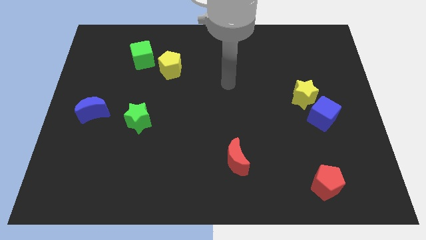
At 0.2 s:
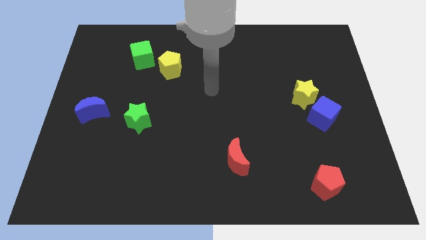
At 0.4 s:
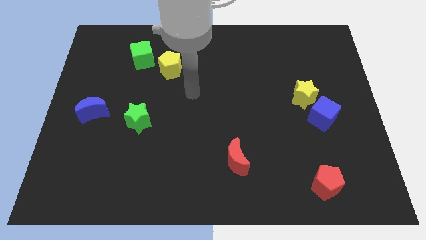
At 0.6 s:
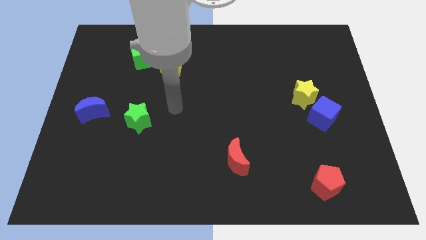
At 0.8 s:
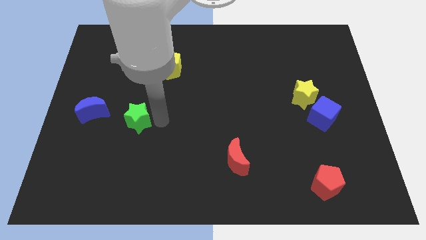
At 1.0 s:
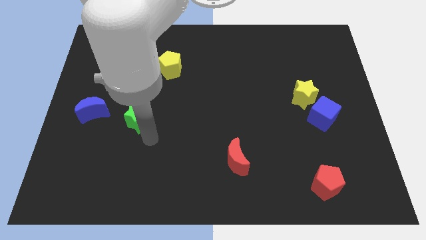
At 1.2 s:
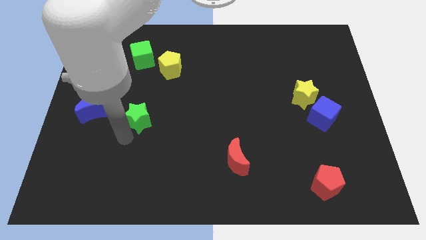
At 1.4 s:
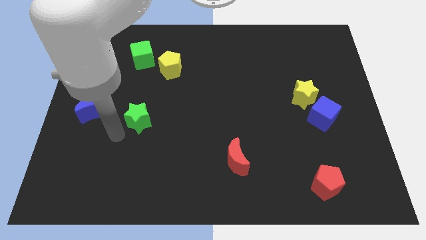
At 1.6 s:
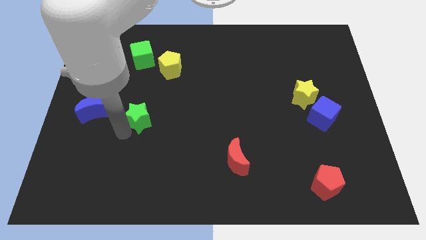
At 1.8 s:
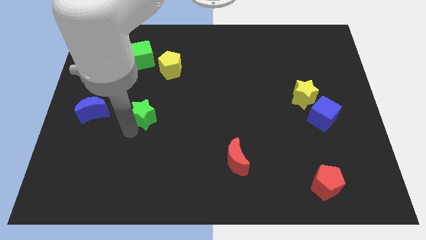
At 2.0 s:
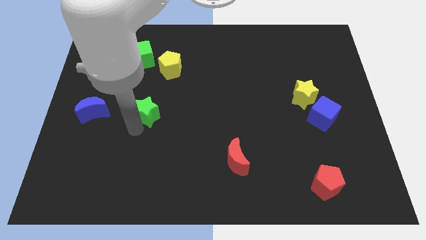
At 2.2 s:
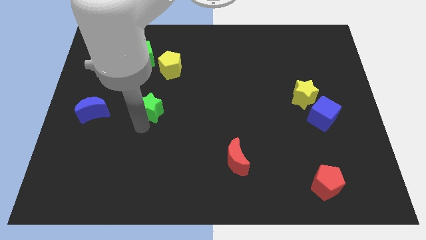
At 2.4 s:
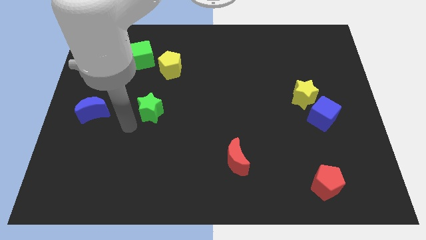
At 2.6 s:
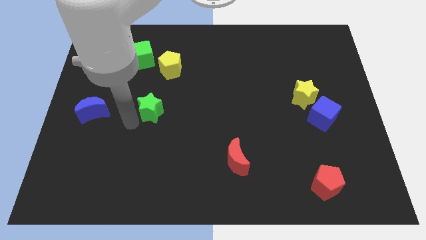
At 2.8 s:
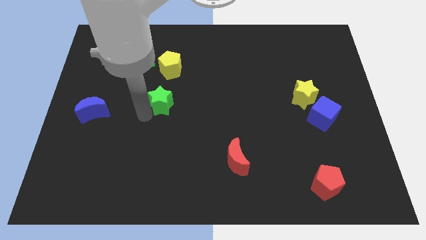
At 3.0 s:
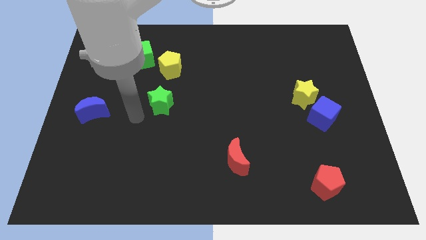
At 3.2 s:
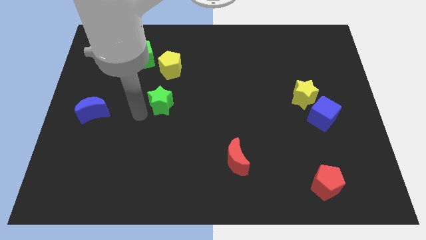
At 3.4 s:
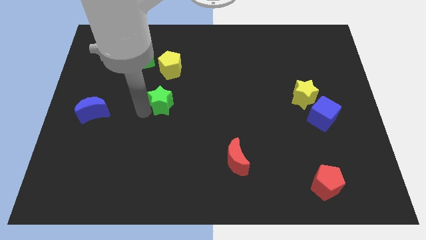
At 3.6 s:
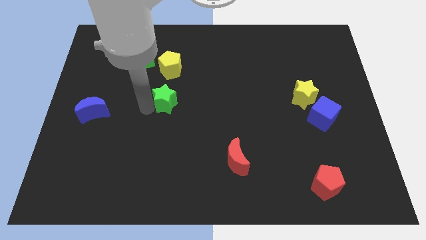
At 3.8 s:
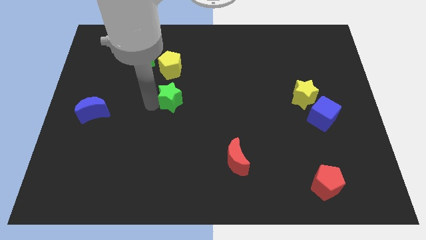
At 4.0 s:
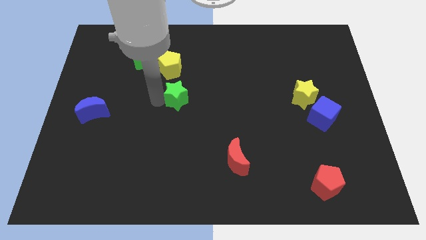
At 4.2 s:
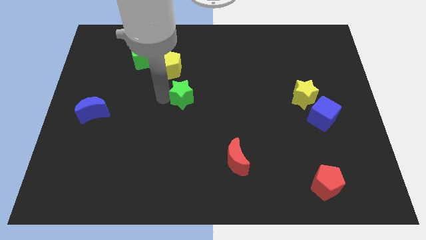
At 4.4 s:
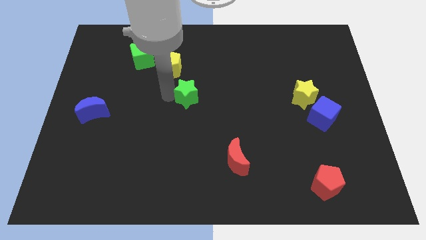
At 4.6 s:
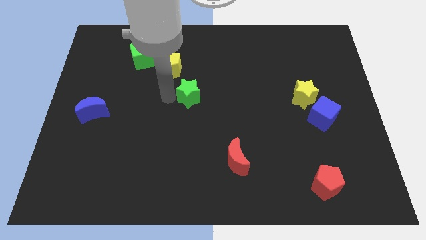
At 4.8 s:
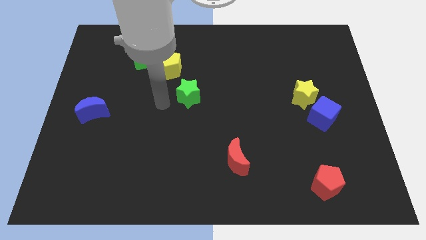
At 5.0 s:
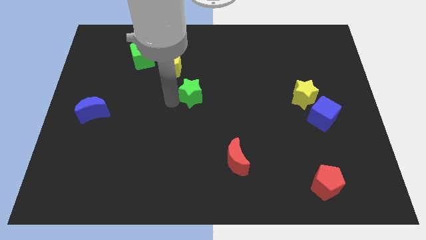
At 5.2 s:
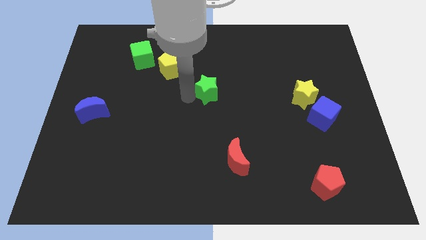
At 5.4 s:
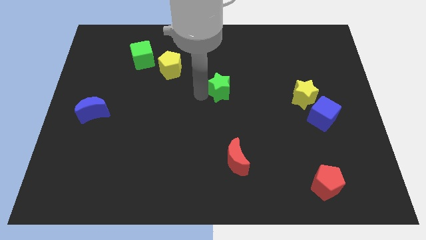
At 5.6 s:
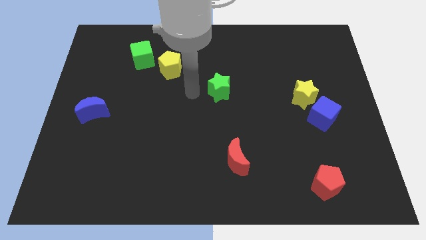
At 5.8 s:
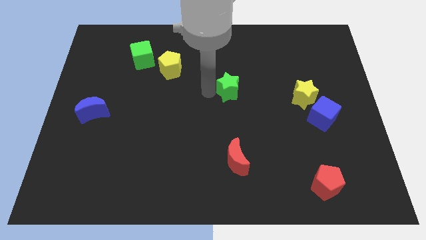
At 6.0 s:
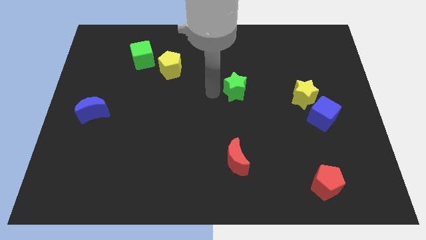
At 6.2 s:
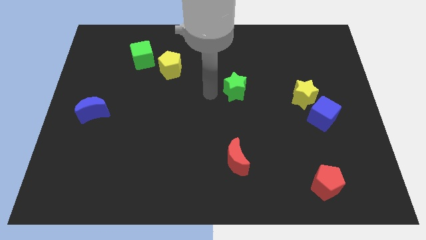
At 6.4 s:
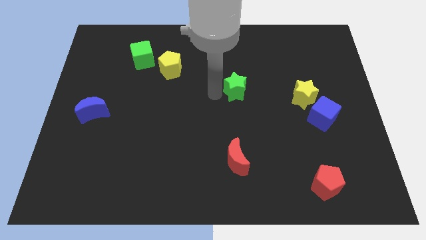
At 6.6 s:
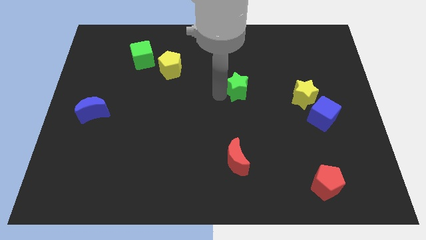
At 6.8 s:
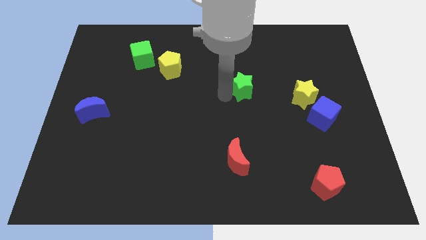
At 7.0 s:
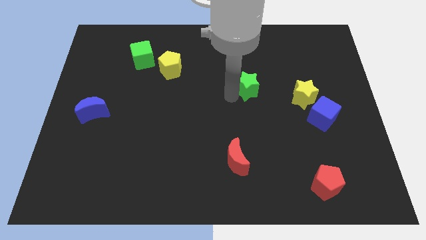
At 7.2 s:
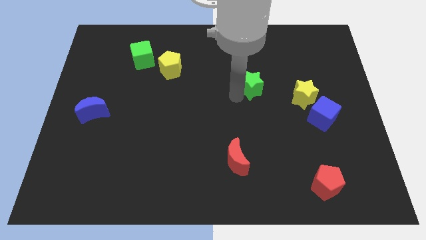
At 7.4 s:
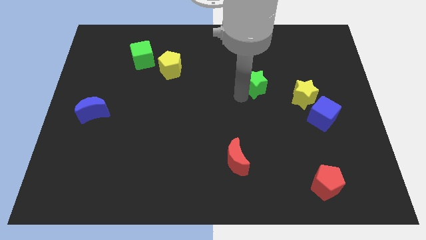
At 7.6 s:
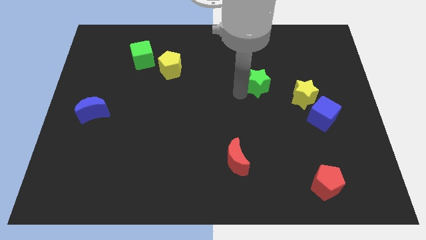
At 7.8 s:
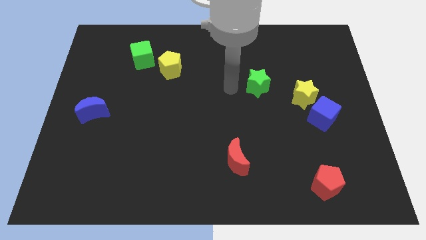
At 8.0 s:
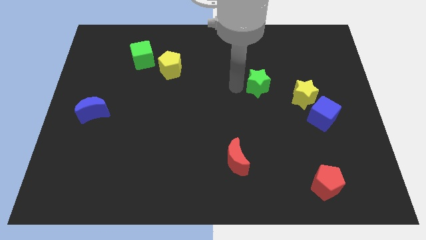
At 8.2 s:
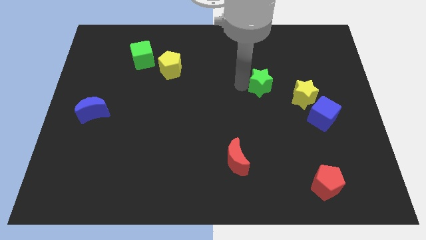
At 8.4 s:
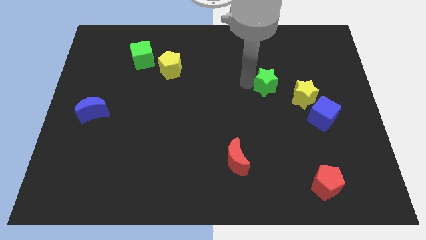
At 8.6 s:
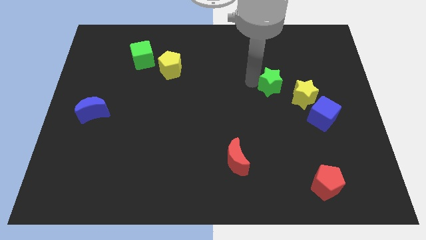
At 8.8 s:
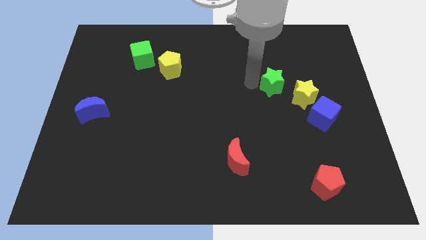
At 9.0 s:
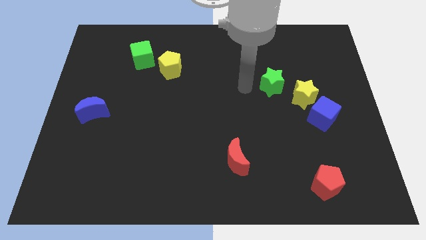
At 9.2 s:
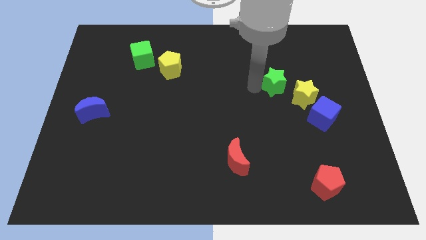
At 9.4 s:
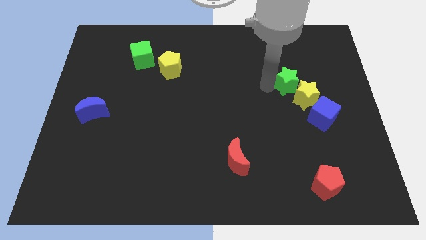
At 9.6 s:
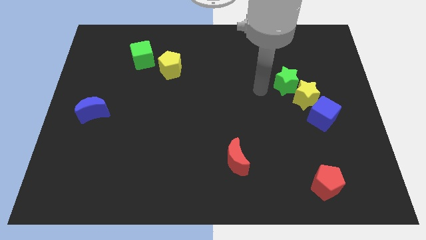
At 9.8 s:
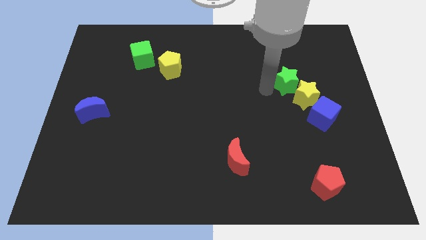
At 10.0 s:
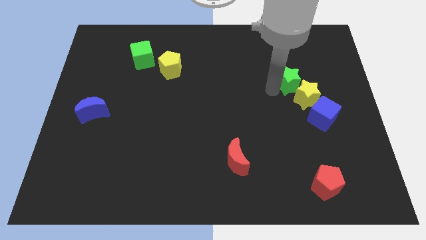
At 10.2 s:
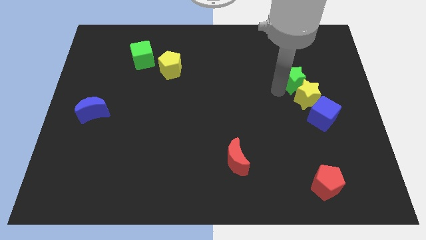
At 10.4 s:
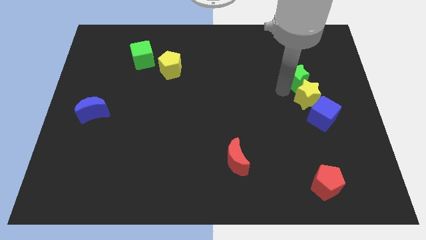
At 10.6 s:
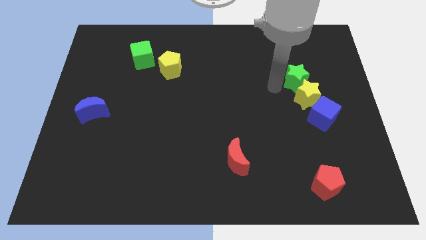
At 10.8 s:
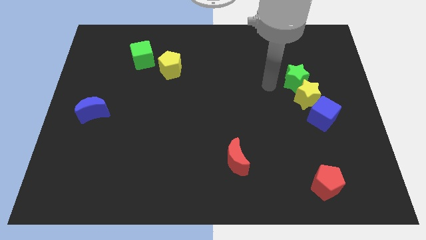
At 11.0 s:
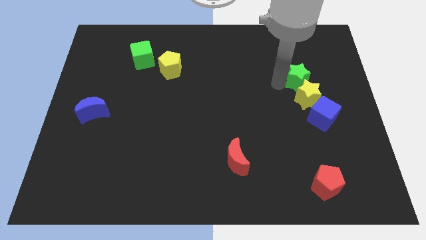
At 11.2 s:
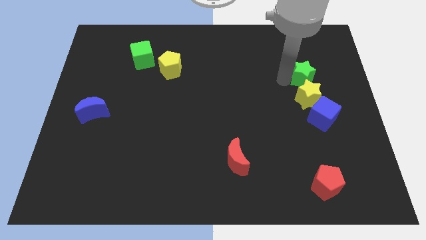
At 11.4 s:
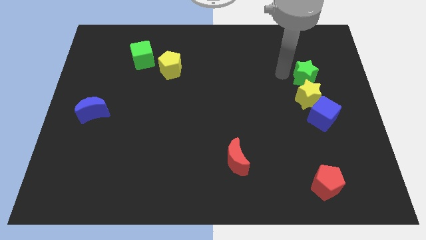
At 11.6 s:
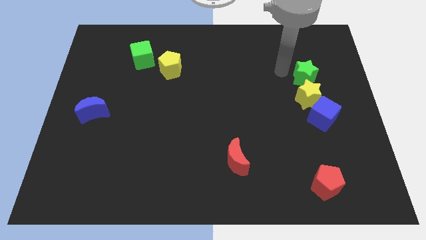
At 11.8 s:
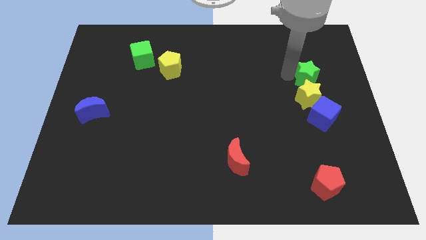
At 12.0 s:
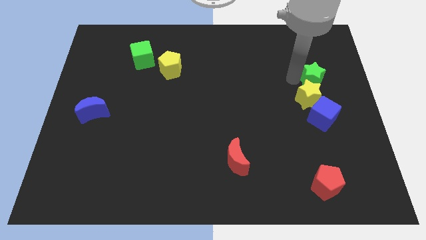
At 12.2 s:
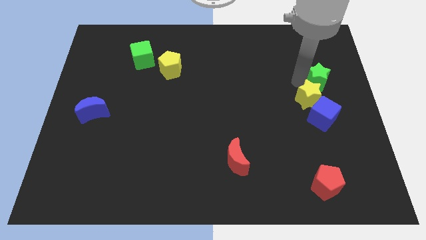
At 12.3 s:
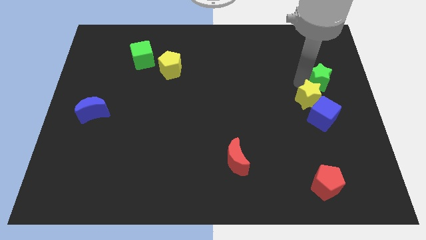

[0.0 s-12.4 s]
slide the green star to the right side
